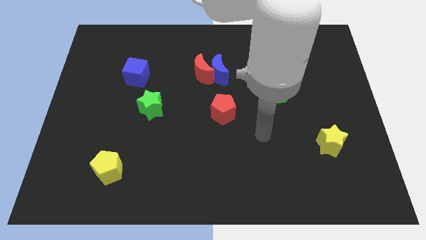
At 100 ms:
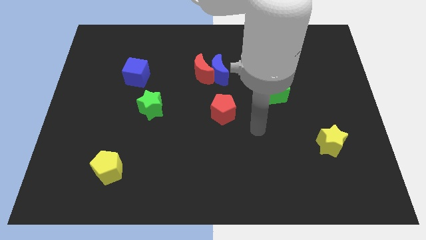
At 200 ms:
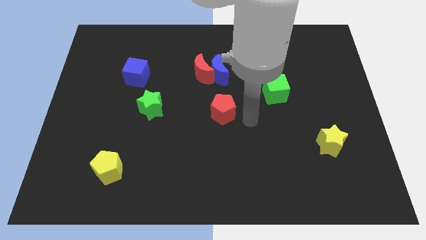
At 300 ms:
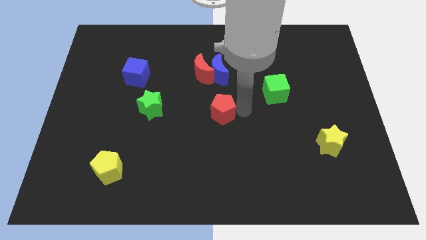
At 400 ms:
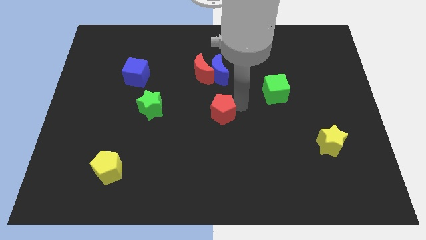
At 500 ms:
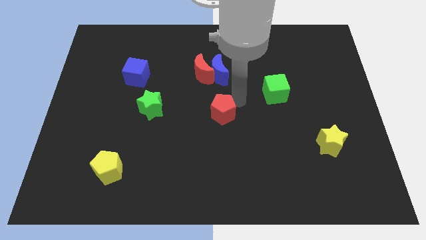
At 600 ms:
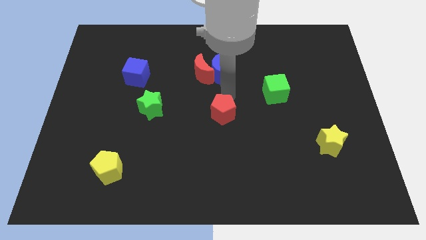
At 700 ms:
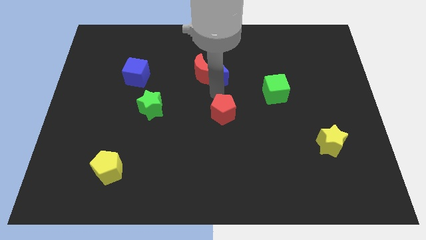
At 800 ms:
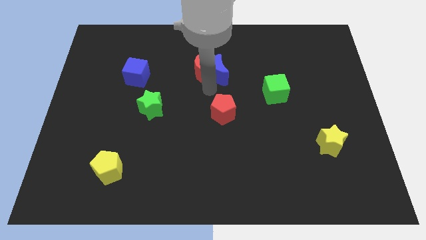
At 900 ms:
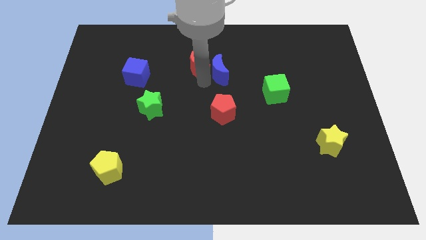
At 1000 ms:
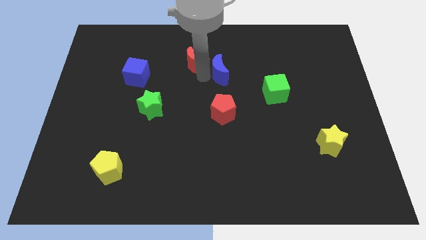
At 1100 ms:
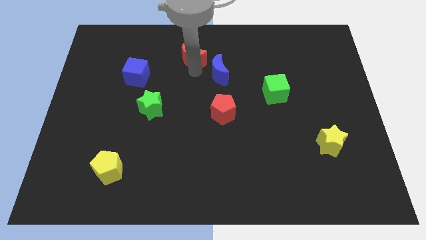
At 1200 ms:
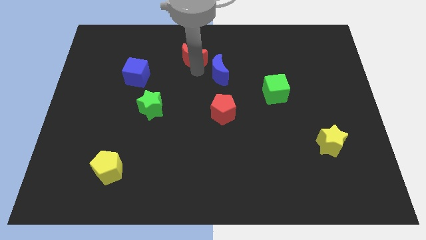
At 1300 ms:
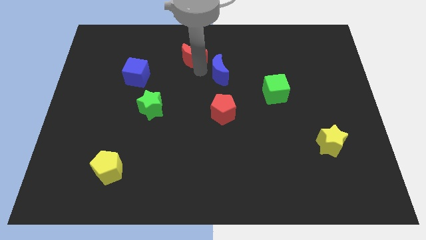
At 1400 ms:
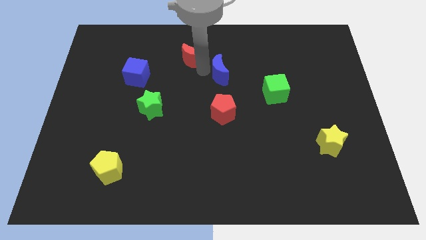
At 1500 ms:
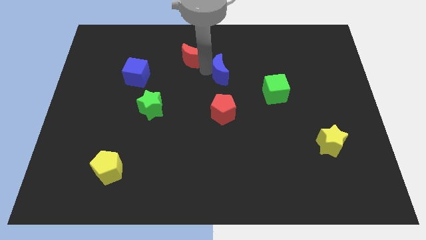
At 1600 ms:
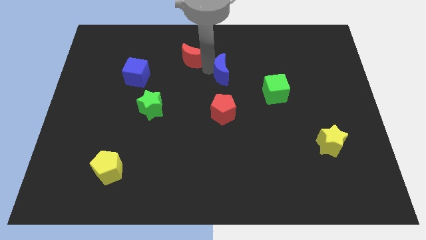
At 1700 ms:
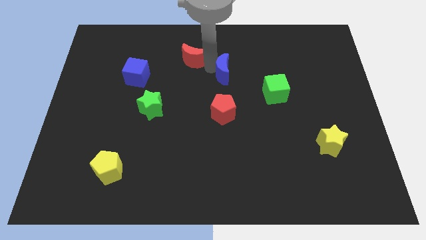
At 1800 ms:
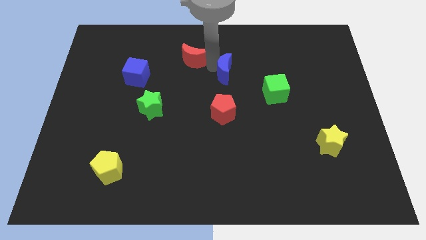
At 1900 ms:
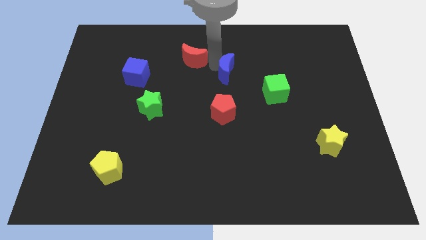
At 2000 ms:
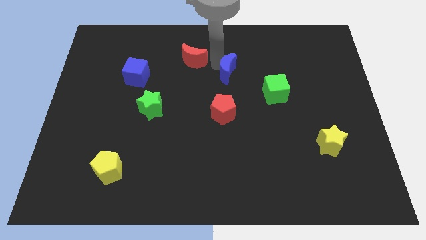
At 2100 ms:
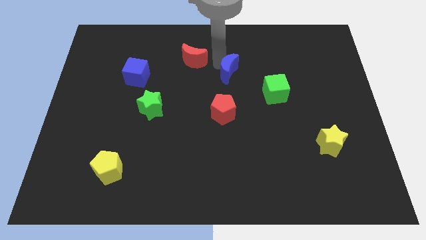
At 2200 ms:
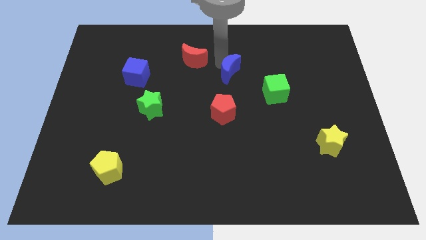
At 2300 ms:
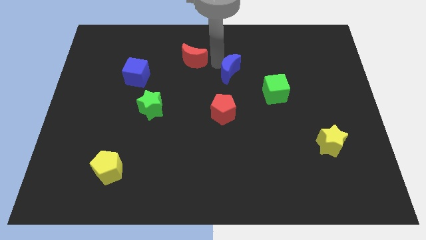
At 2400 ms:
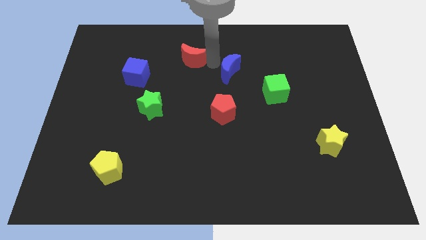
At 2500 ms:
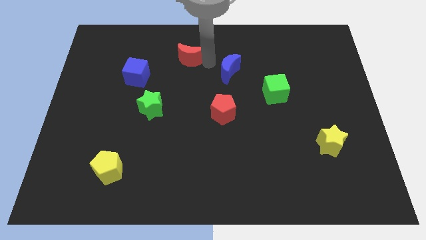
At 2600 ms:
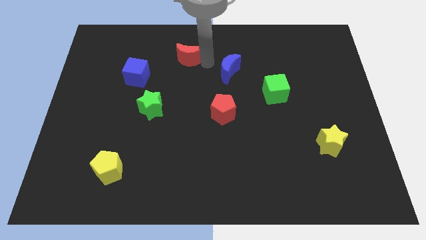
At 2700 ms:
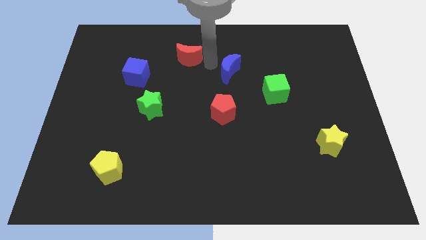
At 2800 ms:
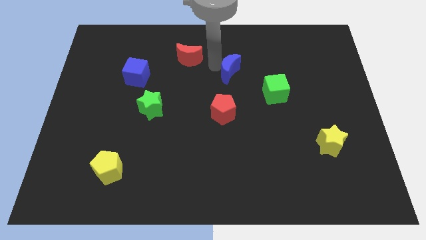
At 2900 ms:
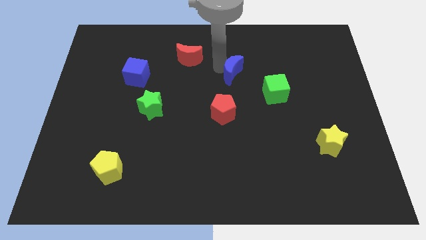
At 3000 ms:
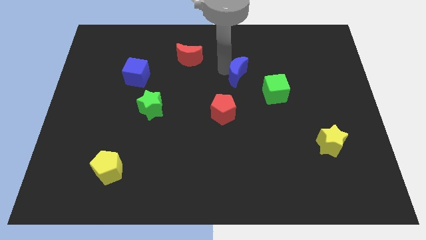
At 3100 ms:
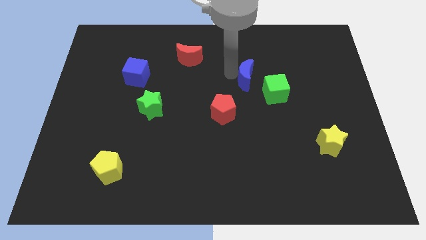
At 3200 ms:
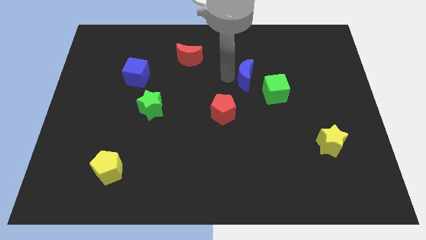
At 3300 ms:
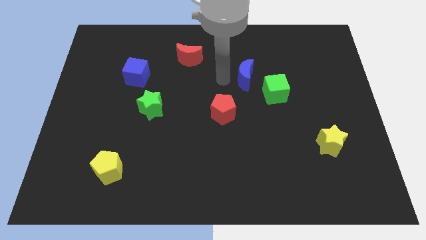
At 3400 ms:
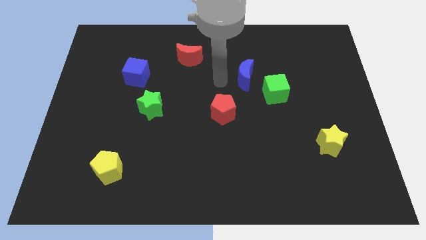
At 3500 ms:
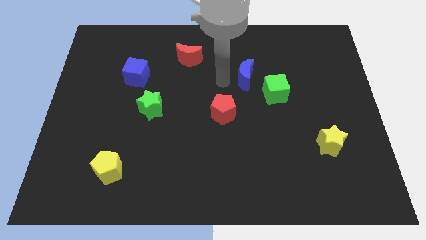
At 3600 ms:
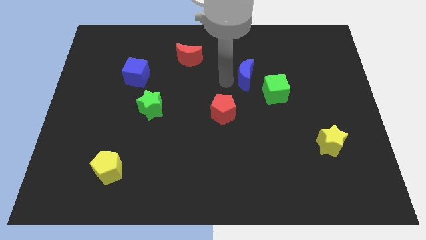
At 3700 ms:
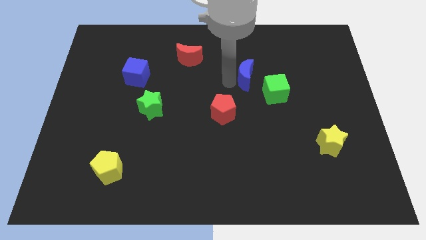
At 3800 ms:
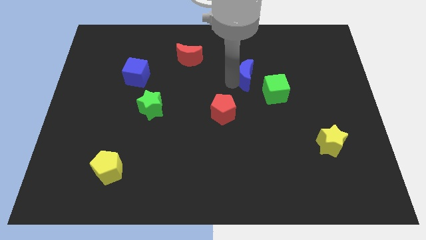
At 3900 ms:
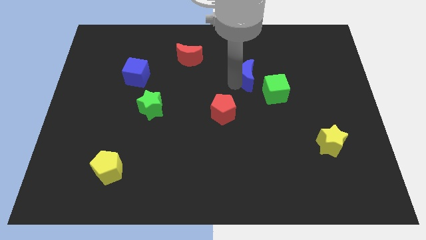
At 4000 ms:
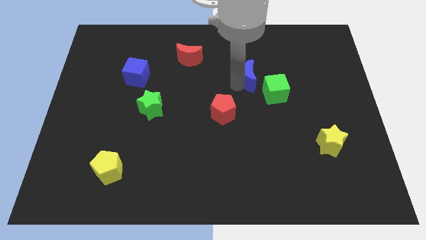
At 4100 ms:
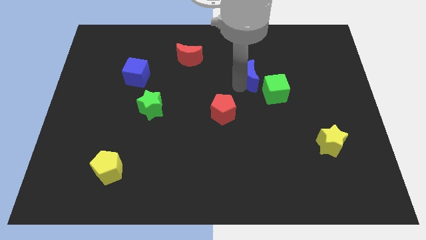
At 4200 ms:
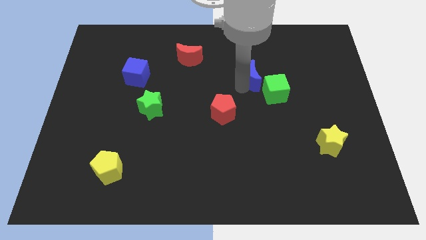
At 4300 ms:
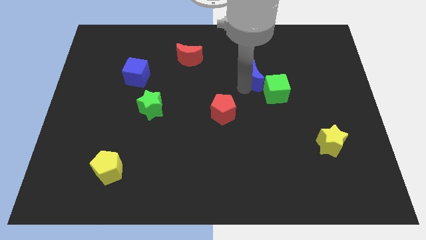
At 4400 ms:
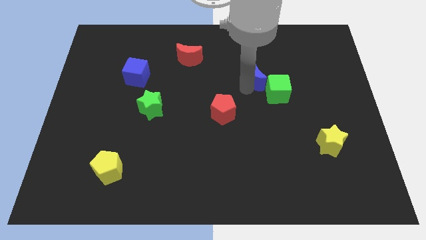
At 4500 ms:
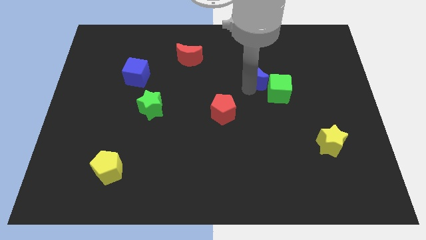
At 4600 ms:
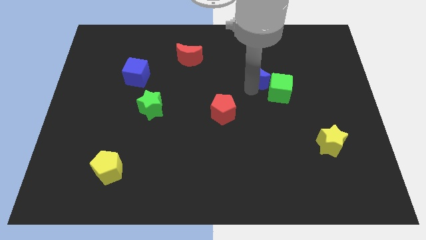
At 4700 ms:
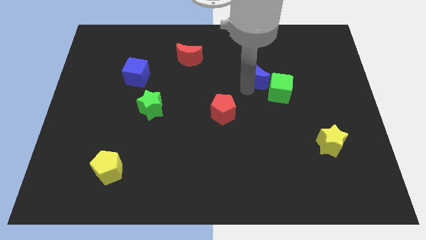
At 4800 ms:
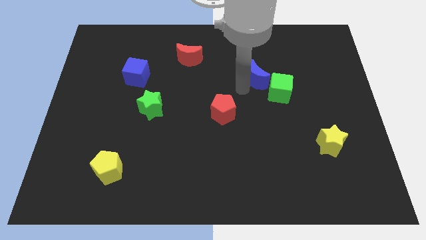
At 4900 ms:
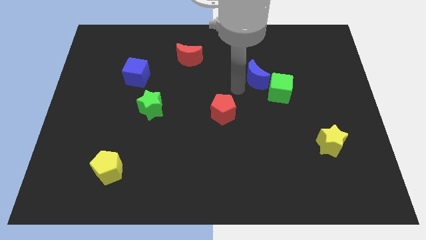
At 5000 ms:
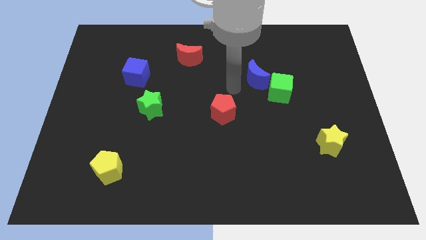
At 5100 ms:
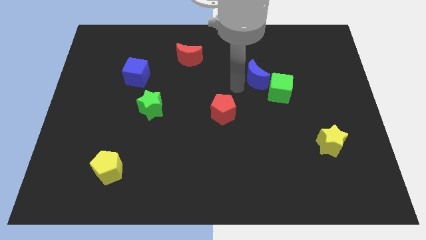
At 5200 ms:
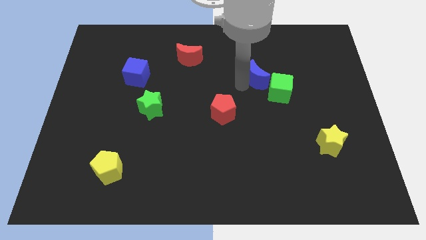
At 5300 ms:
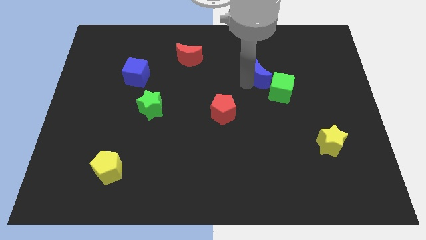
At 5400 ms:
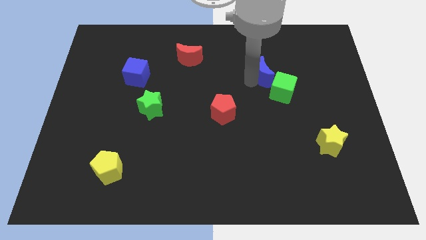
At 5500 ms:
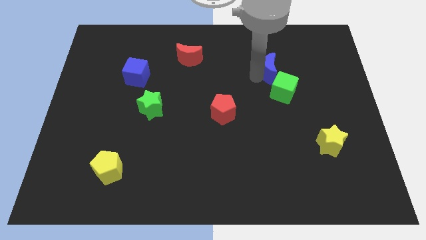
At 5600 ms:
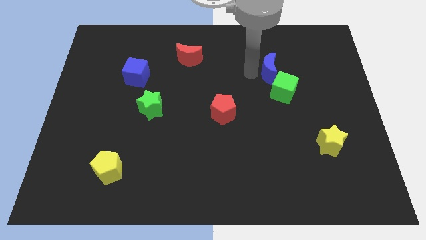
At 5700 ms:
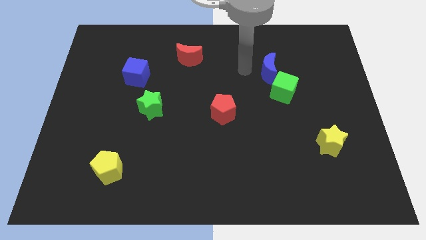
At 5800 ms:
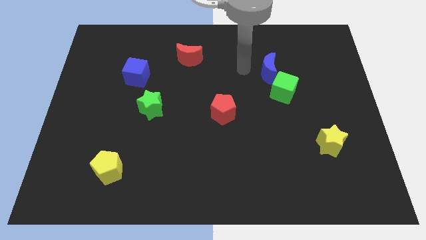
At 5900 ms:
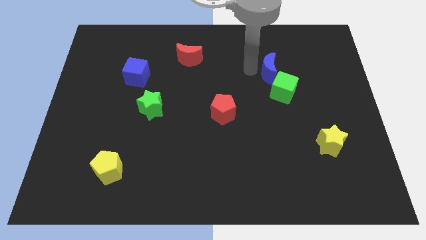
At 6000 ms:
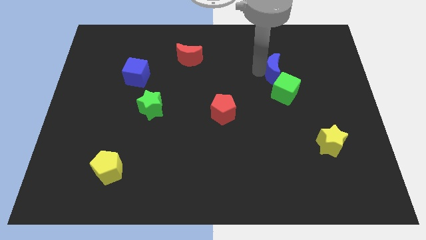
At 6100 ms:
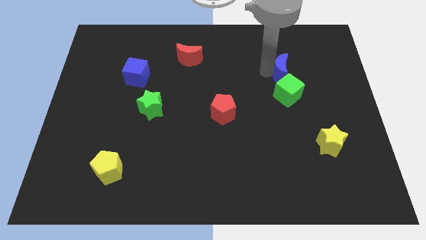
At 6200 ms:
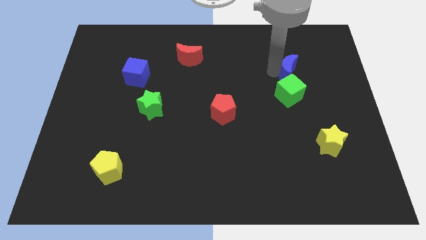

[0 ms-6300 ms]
push the blue moon diagonally up and to the right of the green cube
